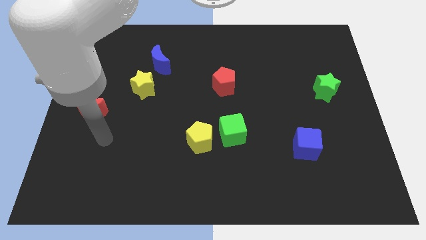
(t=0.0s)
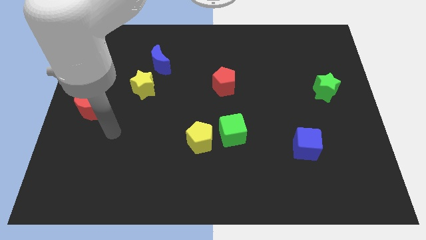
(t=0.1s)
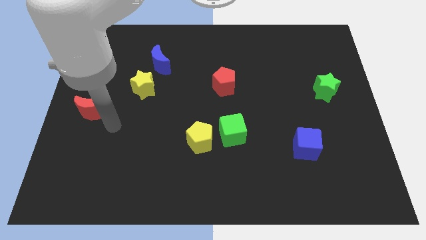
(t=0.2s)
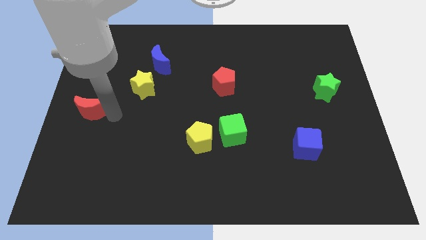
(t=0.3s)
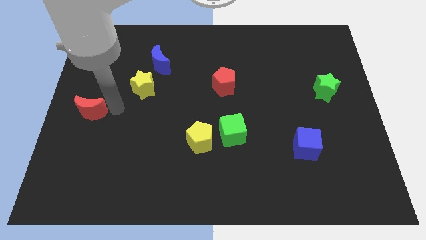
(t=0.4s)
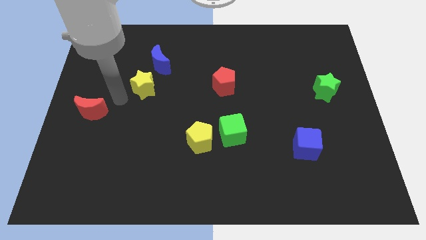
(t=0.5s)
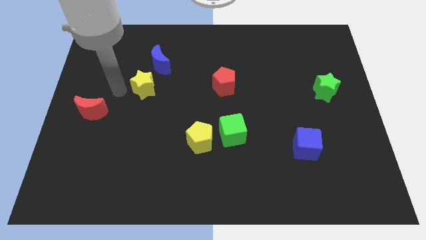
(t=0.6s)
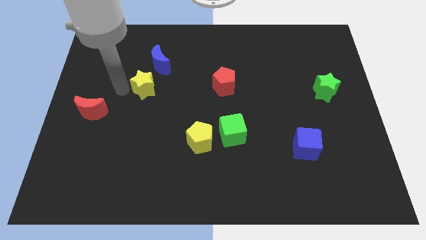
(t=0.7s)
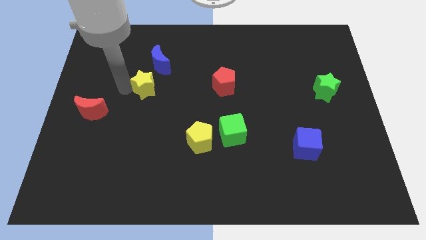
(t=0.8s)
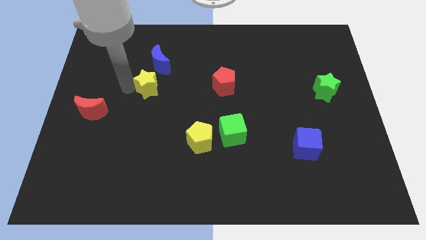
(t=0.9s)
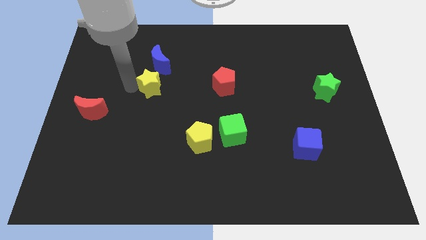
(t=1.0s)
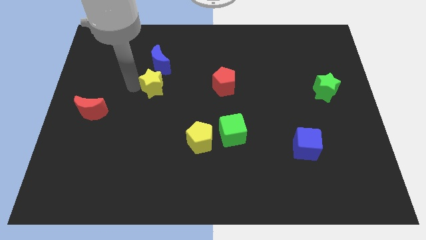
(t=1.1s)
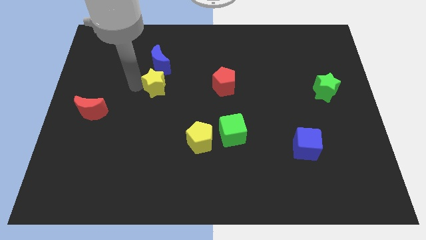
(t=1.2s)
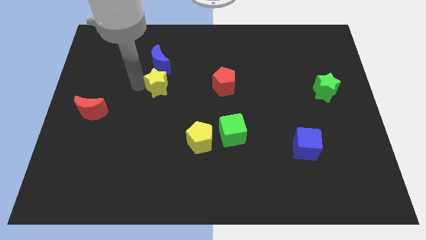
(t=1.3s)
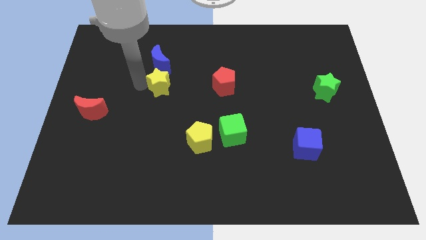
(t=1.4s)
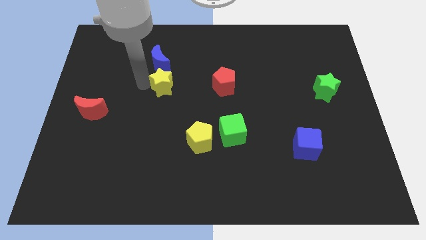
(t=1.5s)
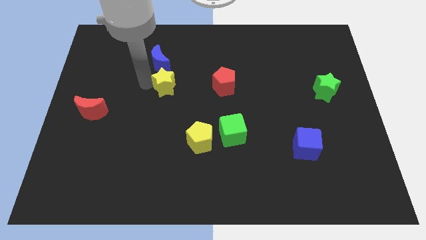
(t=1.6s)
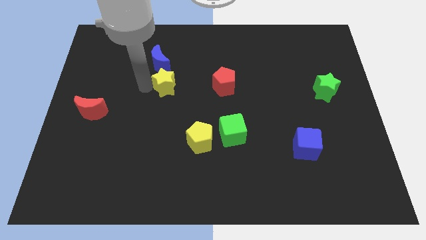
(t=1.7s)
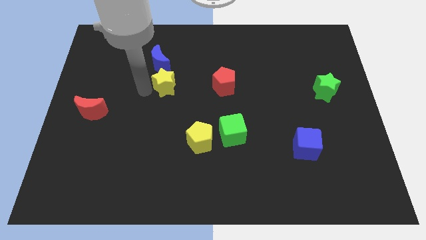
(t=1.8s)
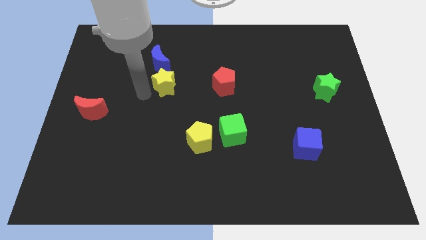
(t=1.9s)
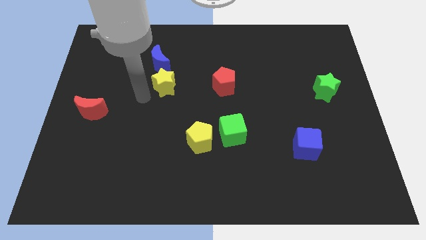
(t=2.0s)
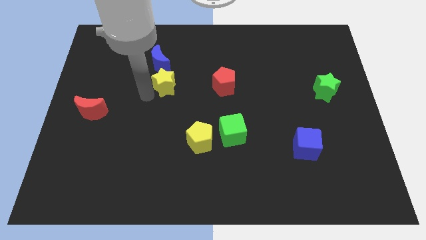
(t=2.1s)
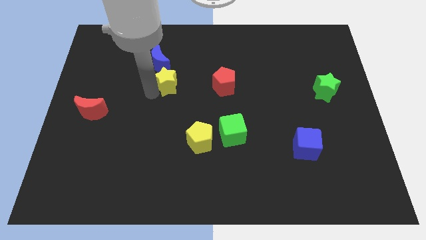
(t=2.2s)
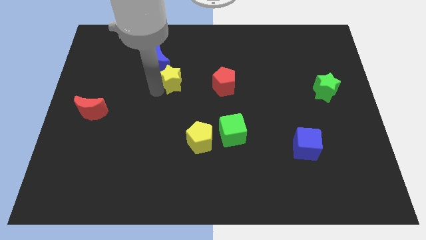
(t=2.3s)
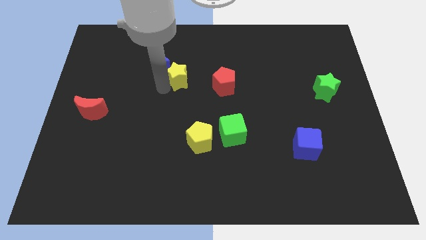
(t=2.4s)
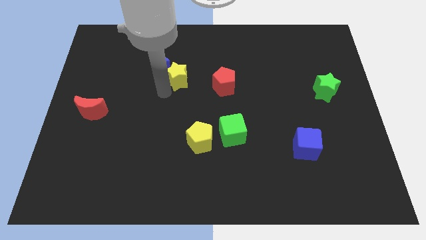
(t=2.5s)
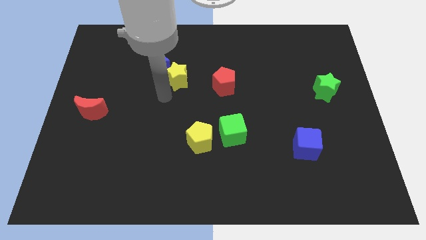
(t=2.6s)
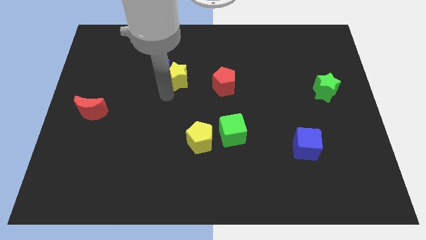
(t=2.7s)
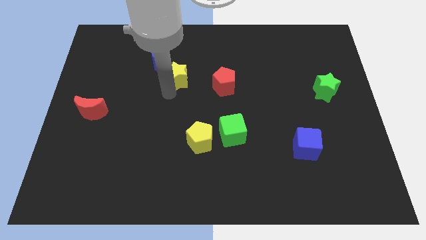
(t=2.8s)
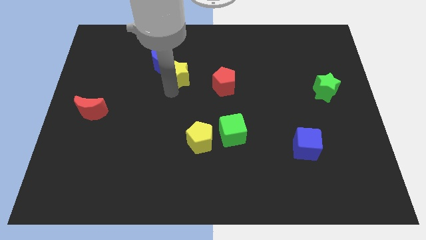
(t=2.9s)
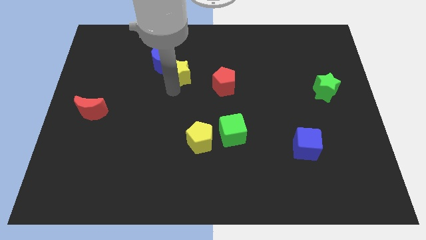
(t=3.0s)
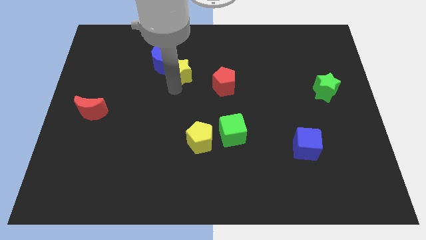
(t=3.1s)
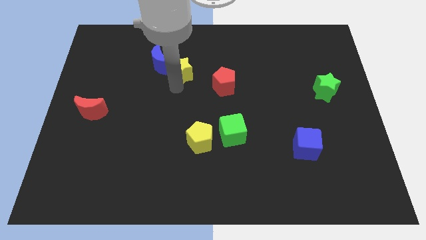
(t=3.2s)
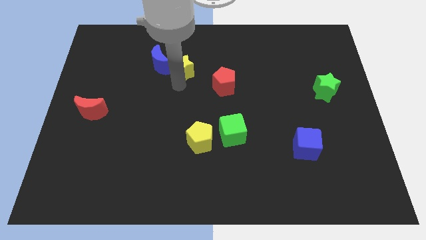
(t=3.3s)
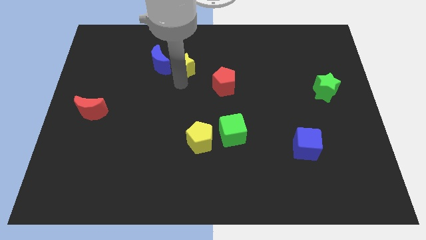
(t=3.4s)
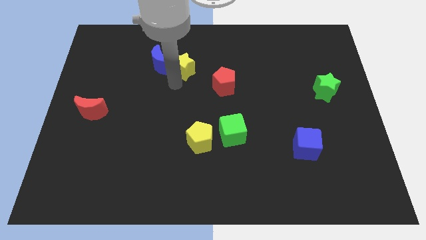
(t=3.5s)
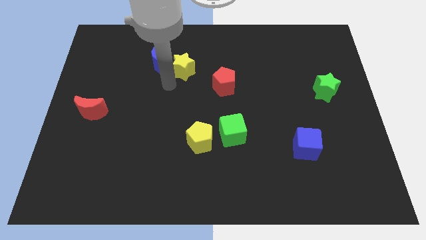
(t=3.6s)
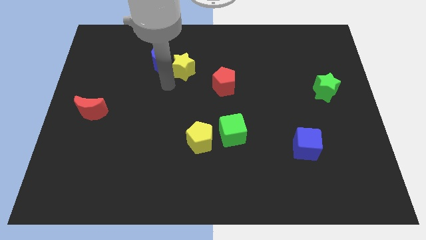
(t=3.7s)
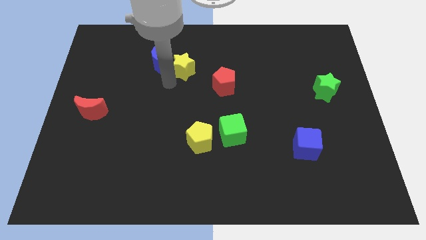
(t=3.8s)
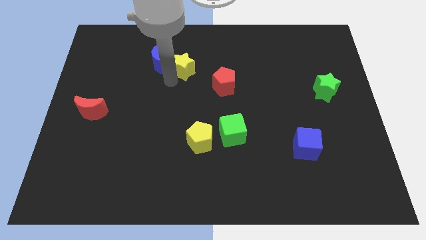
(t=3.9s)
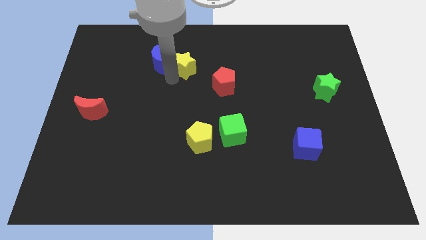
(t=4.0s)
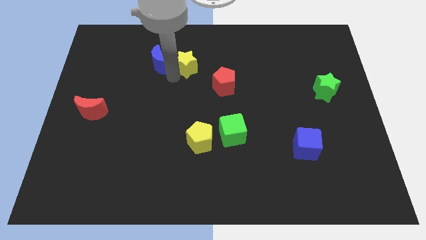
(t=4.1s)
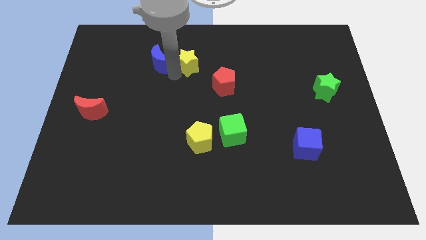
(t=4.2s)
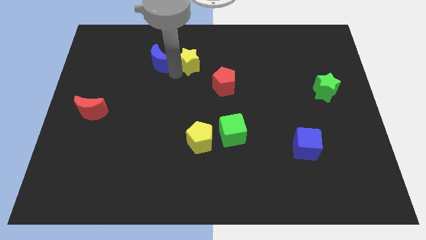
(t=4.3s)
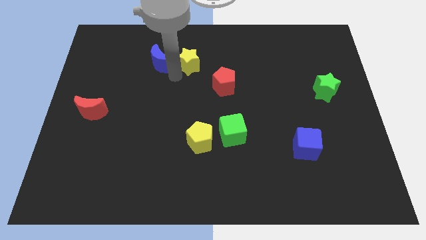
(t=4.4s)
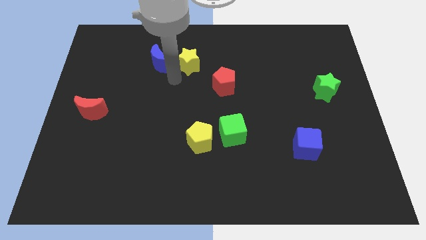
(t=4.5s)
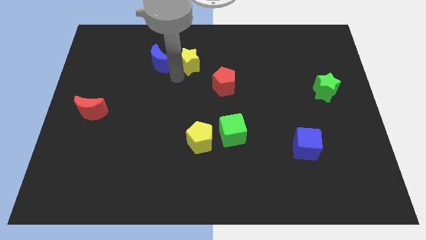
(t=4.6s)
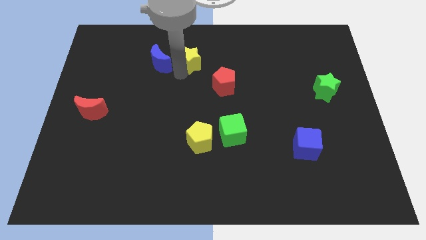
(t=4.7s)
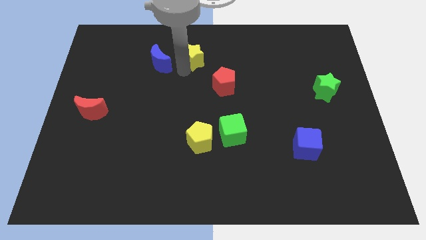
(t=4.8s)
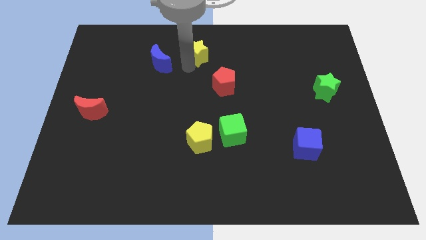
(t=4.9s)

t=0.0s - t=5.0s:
move the yellow star to the top side

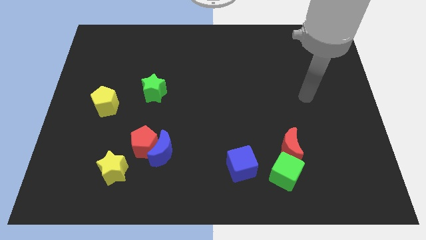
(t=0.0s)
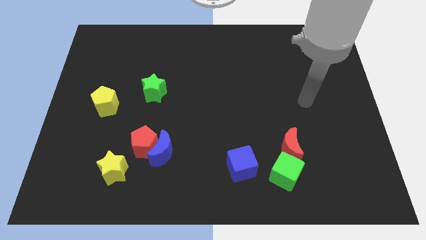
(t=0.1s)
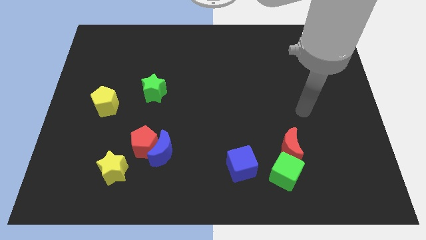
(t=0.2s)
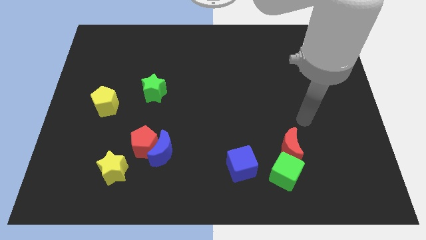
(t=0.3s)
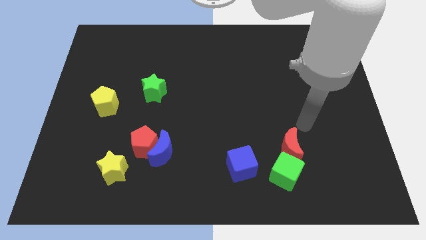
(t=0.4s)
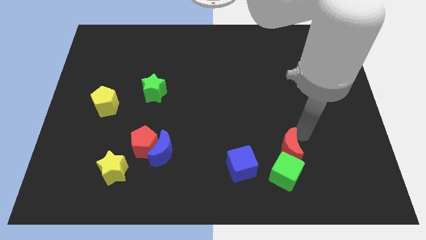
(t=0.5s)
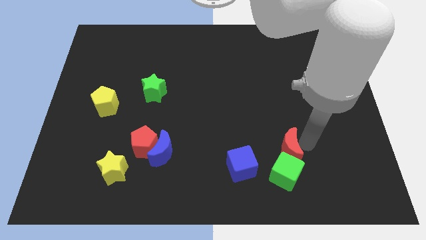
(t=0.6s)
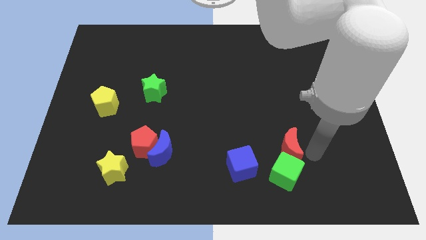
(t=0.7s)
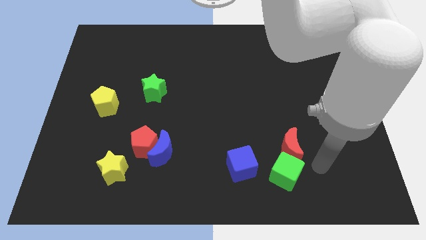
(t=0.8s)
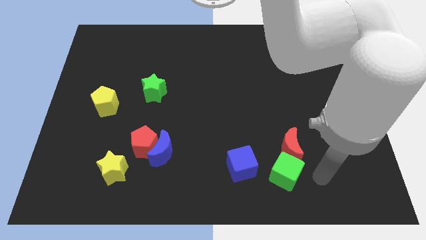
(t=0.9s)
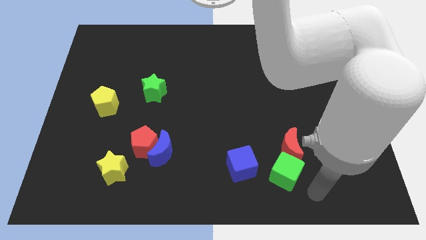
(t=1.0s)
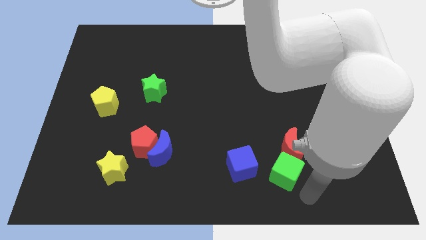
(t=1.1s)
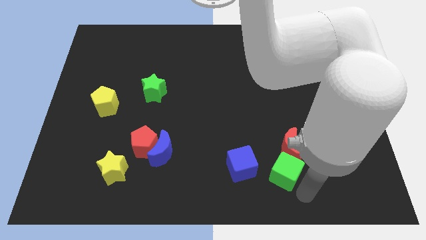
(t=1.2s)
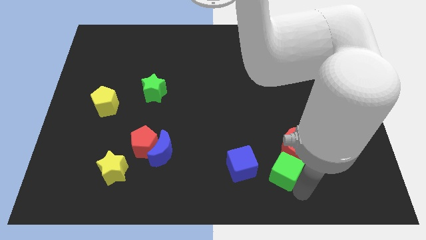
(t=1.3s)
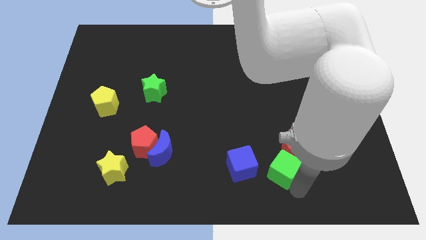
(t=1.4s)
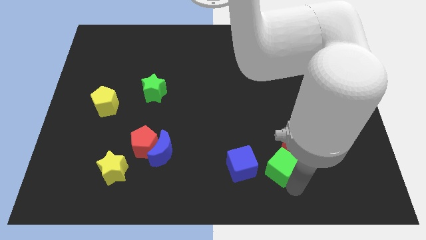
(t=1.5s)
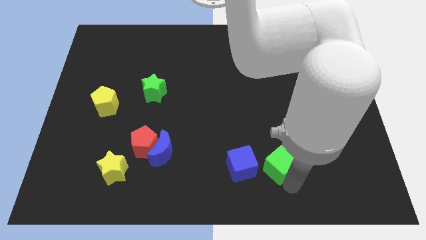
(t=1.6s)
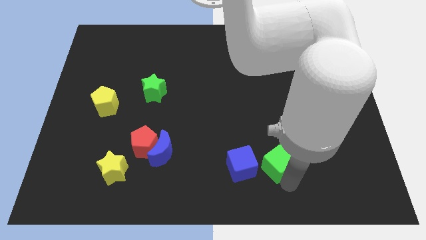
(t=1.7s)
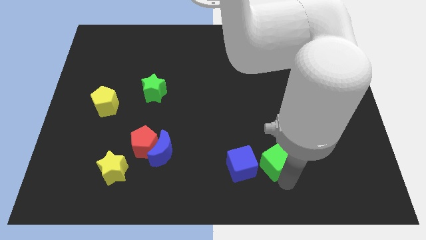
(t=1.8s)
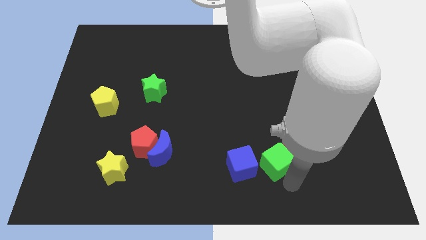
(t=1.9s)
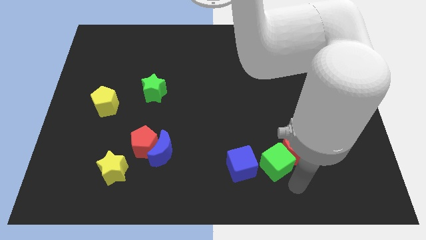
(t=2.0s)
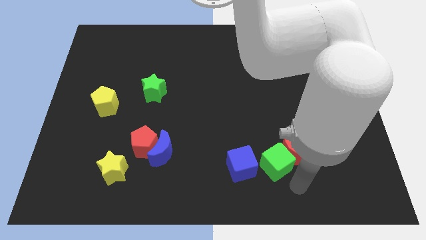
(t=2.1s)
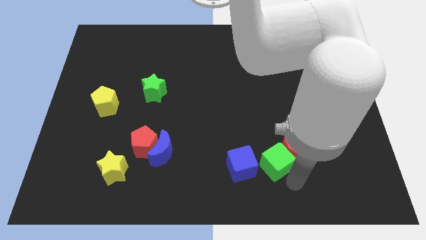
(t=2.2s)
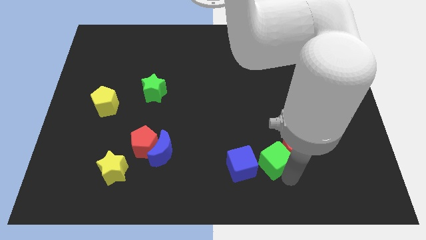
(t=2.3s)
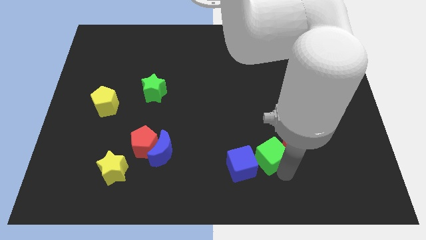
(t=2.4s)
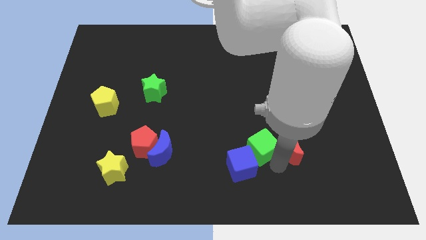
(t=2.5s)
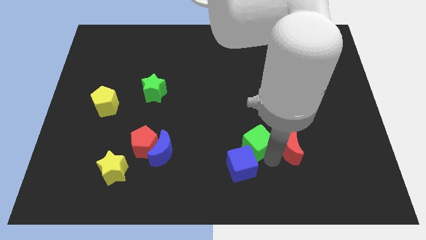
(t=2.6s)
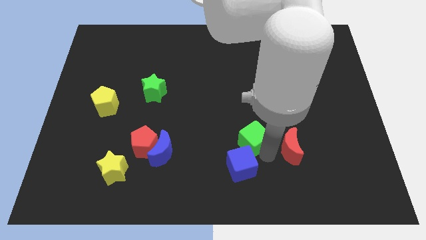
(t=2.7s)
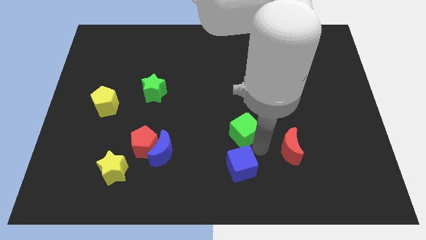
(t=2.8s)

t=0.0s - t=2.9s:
put the green cube to the middle of the board
